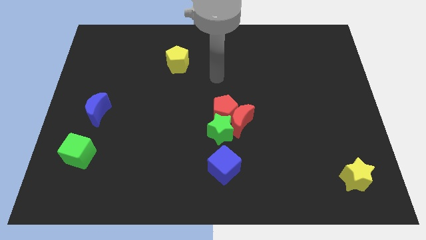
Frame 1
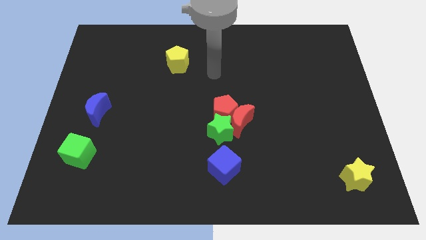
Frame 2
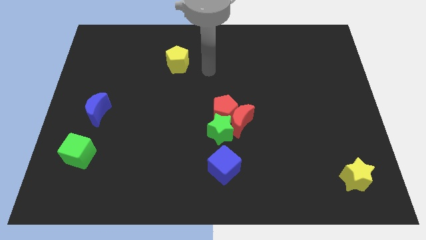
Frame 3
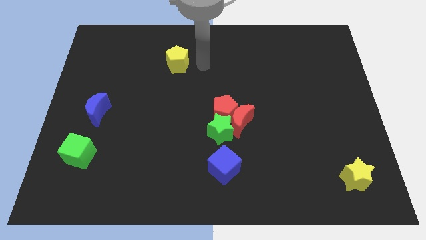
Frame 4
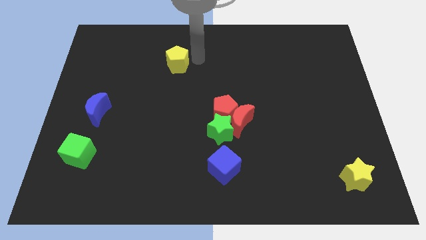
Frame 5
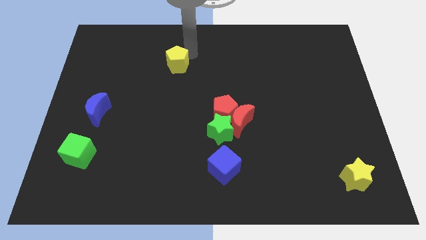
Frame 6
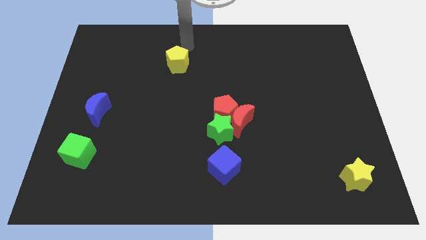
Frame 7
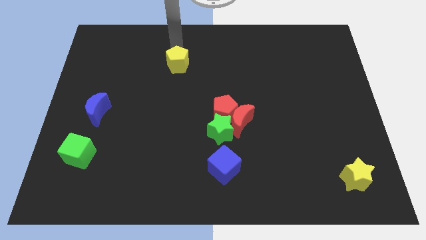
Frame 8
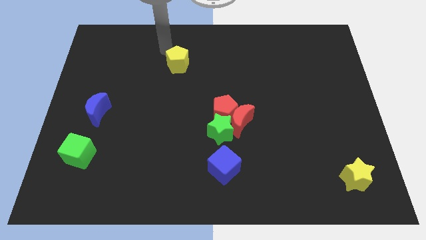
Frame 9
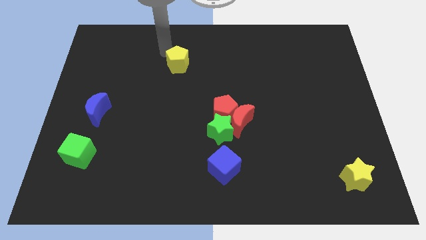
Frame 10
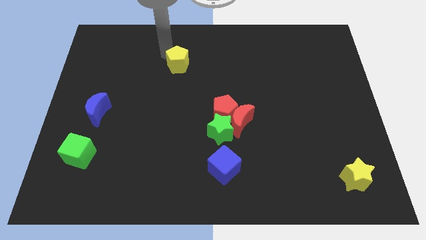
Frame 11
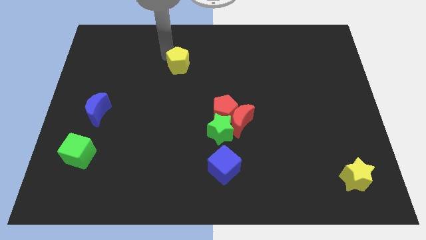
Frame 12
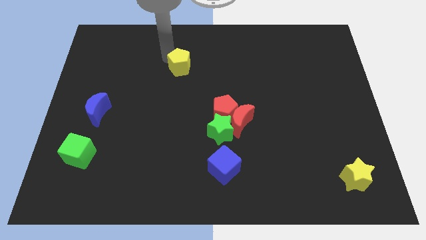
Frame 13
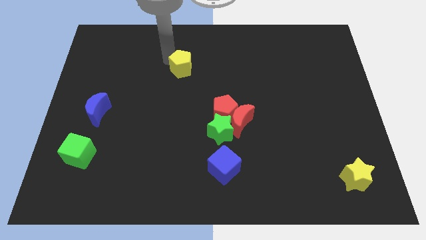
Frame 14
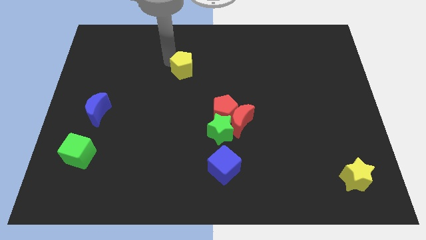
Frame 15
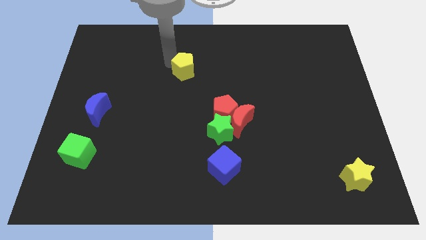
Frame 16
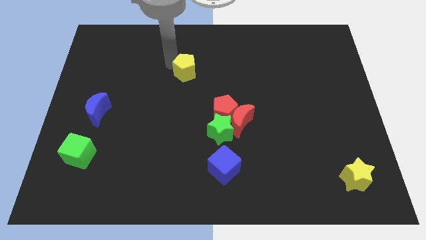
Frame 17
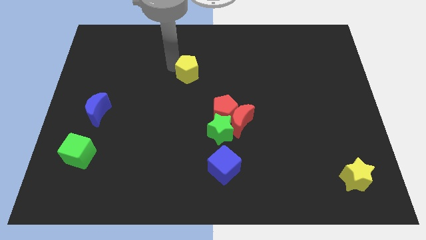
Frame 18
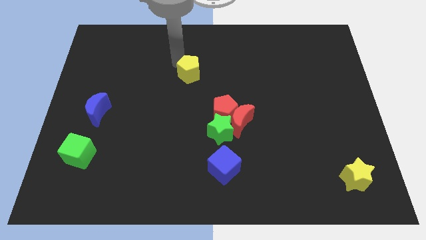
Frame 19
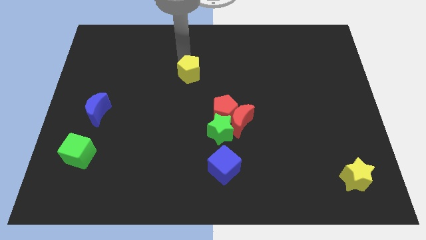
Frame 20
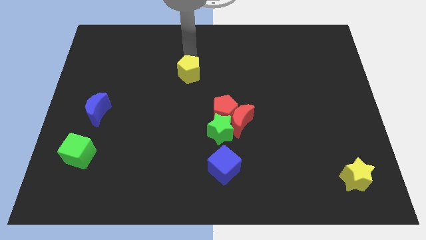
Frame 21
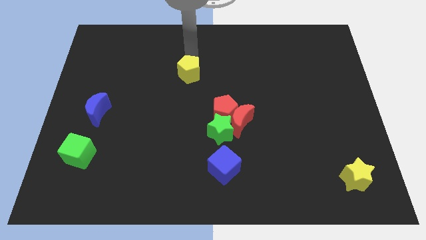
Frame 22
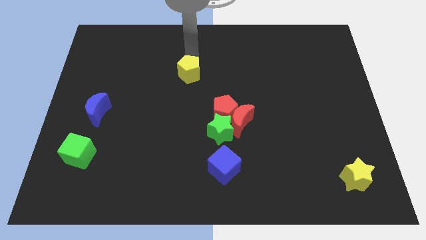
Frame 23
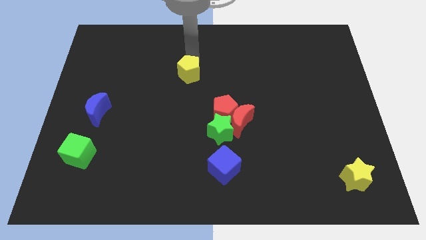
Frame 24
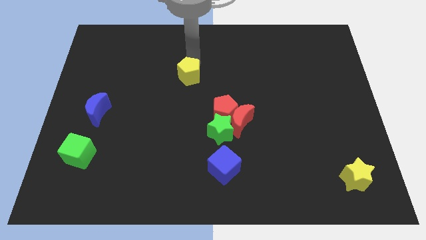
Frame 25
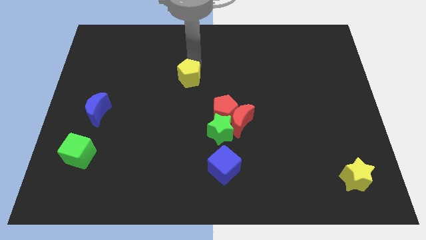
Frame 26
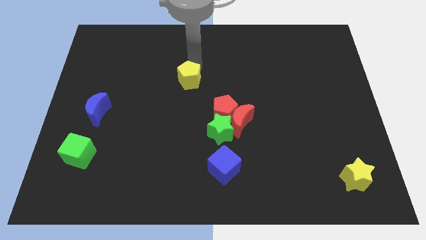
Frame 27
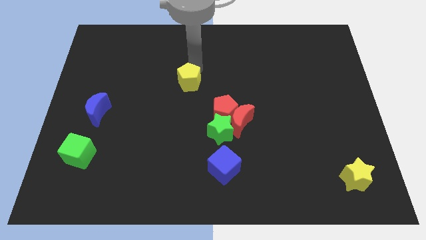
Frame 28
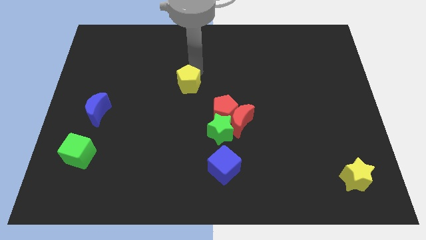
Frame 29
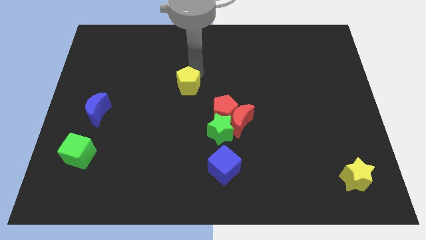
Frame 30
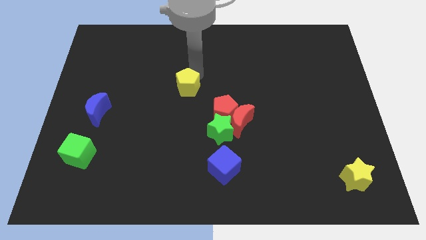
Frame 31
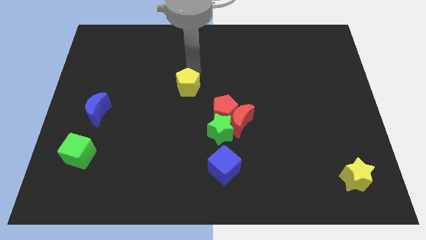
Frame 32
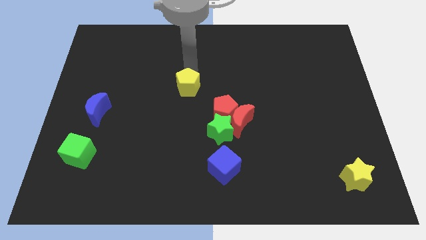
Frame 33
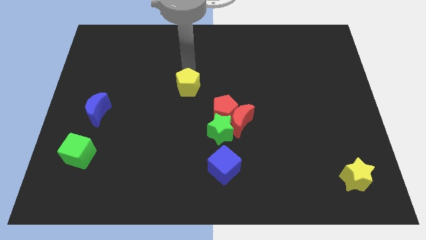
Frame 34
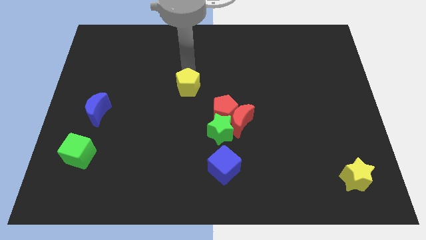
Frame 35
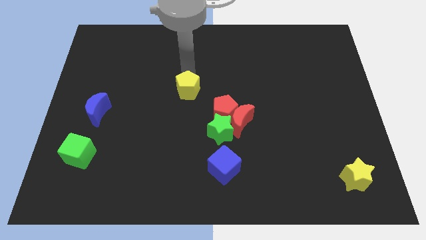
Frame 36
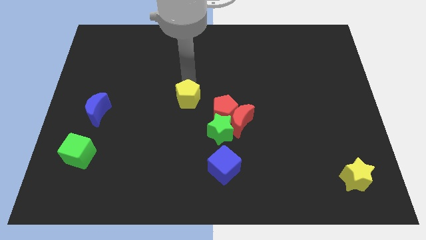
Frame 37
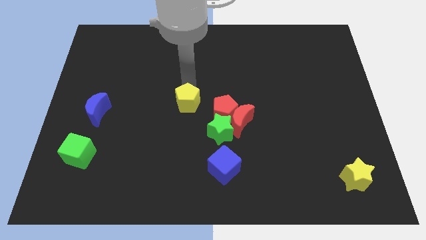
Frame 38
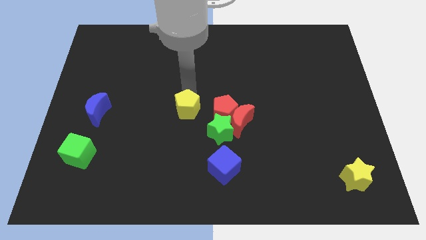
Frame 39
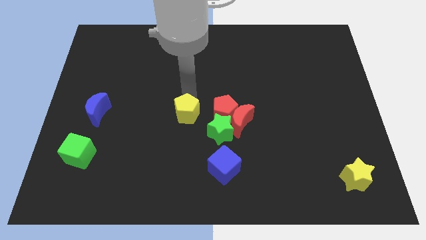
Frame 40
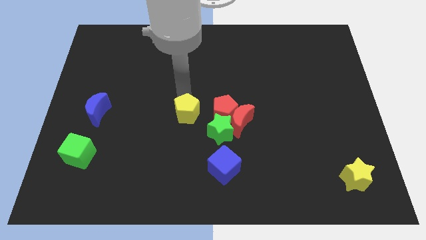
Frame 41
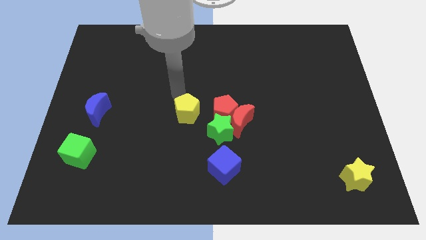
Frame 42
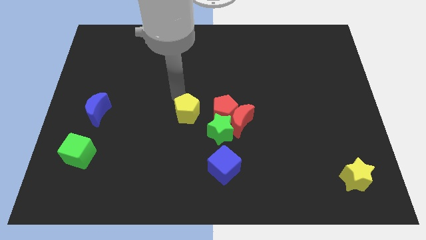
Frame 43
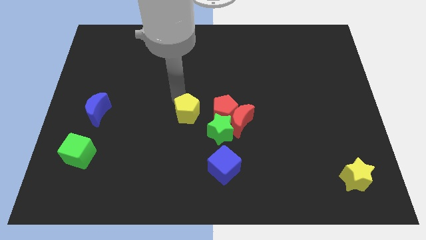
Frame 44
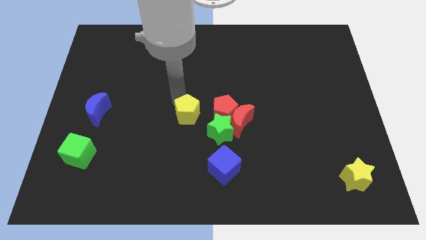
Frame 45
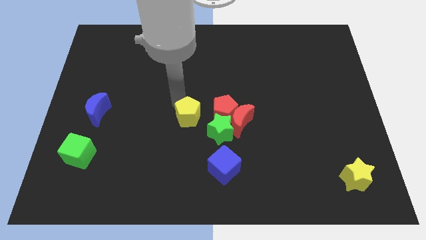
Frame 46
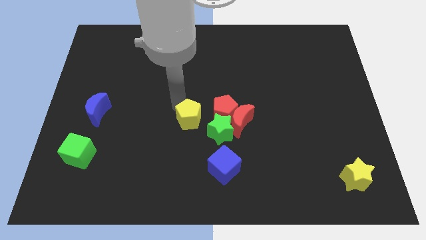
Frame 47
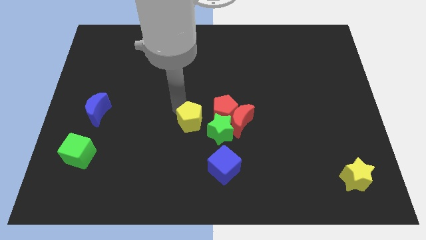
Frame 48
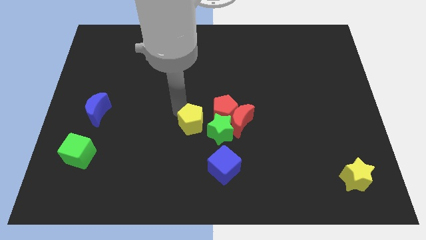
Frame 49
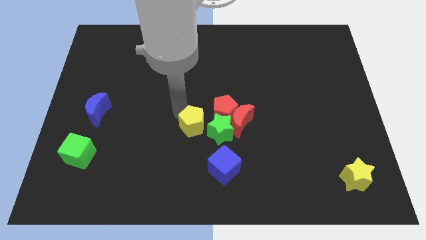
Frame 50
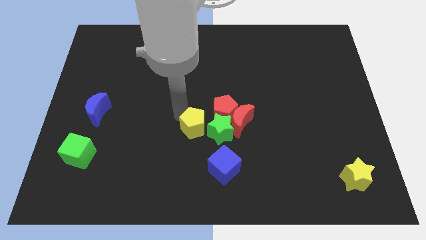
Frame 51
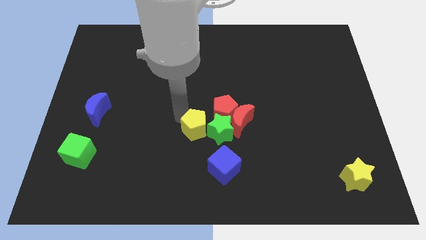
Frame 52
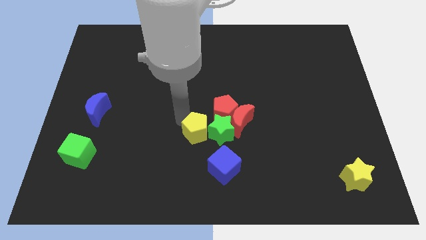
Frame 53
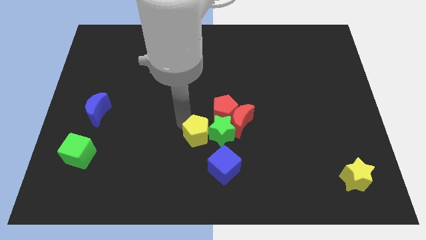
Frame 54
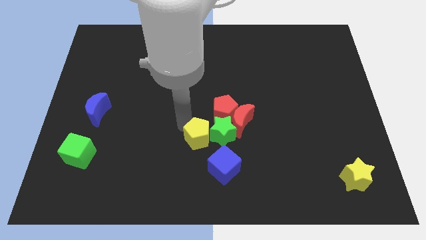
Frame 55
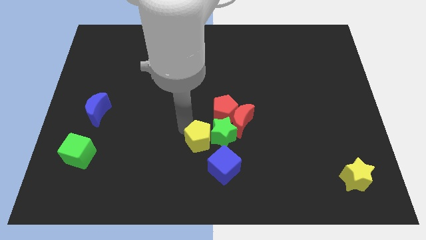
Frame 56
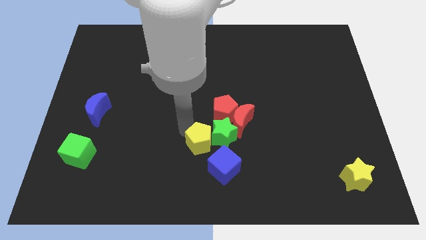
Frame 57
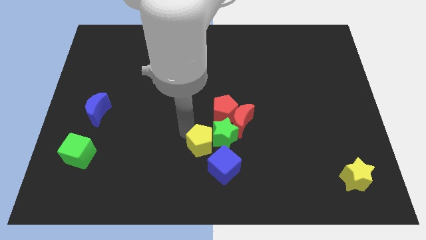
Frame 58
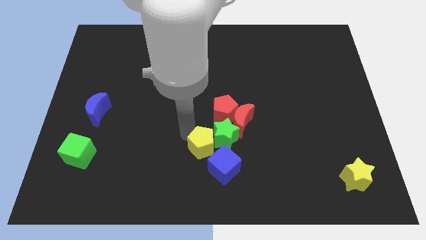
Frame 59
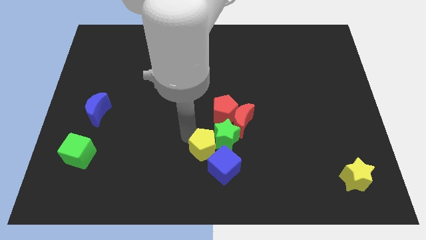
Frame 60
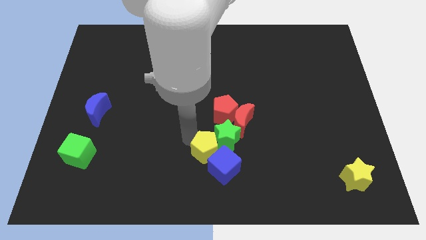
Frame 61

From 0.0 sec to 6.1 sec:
put the yellow pentagon to the blue cube

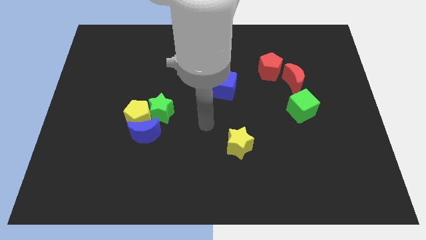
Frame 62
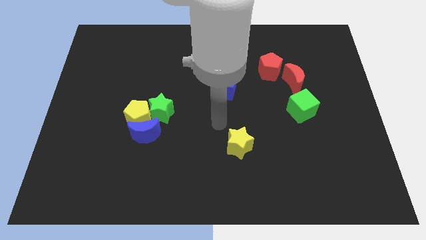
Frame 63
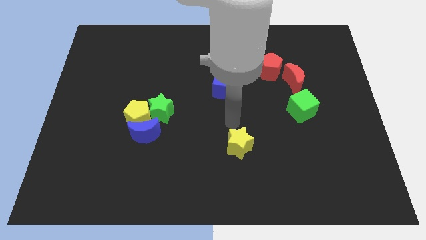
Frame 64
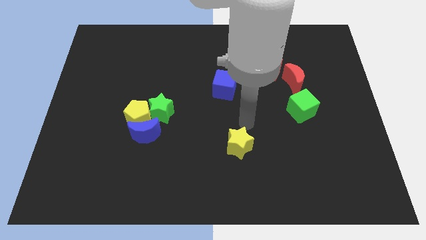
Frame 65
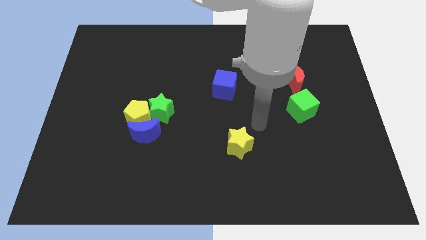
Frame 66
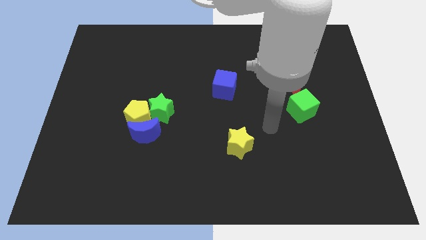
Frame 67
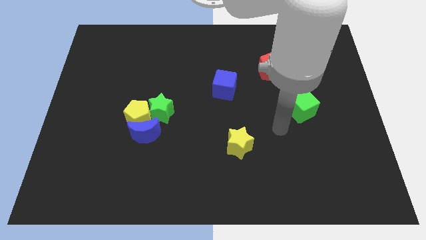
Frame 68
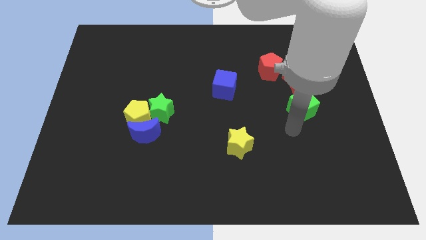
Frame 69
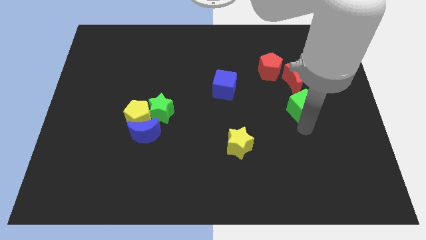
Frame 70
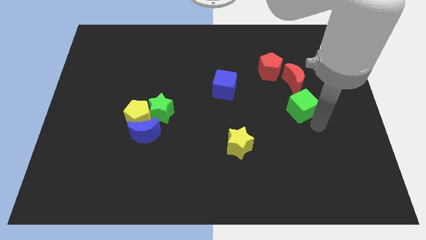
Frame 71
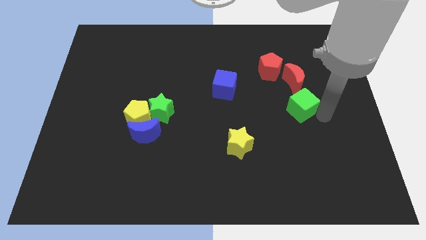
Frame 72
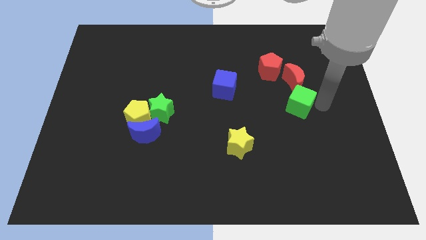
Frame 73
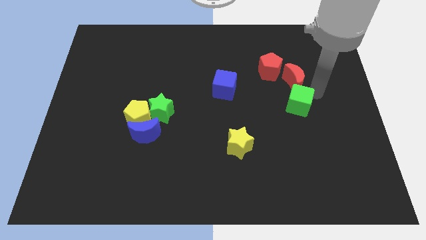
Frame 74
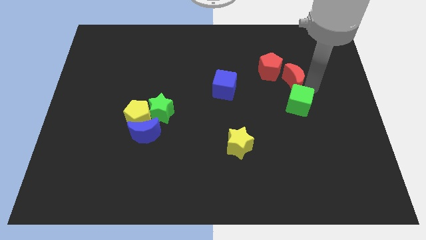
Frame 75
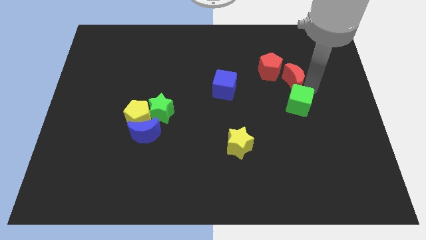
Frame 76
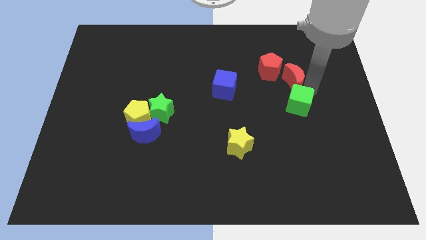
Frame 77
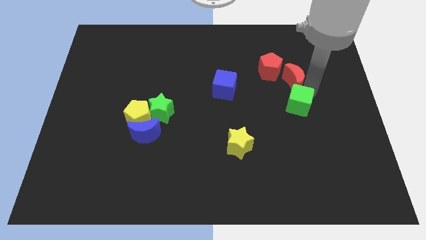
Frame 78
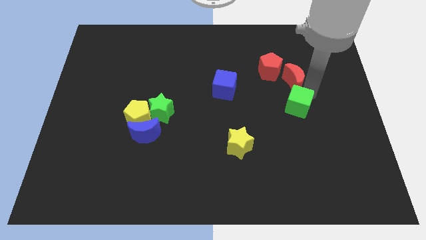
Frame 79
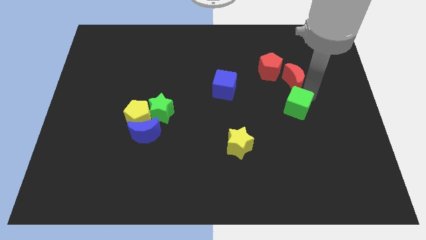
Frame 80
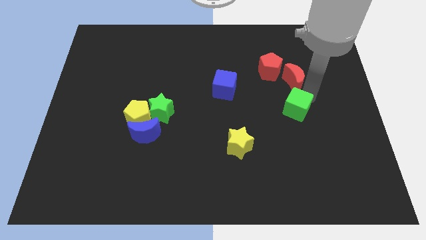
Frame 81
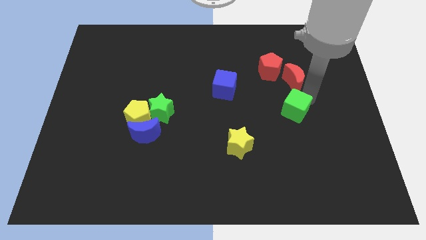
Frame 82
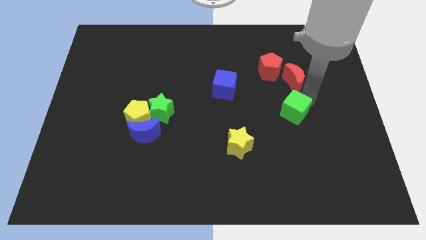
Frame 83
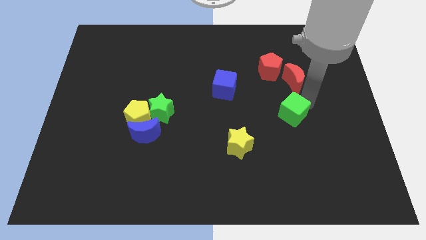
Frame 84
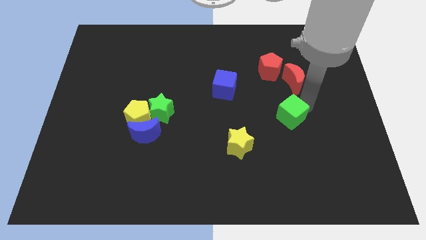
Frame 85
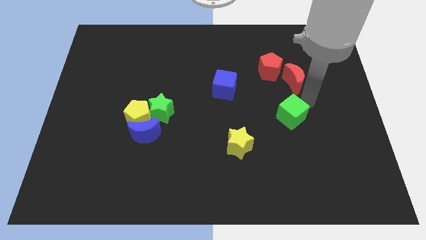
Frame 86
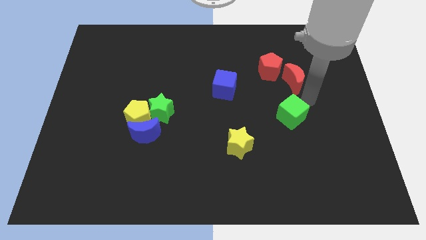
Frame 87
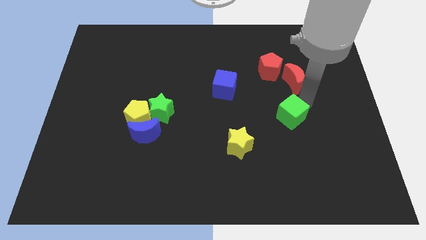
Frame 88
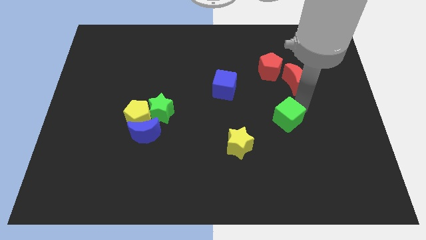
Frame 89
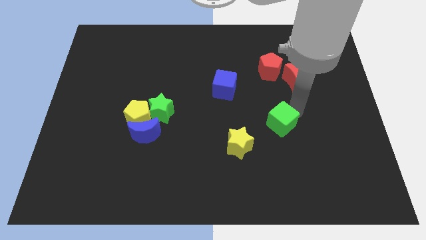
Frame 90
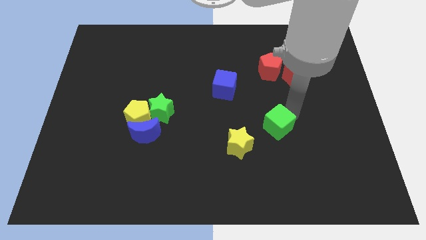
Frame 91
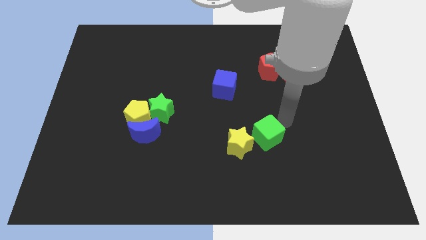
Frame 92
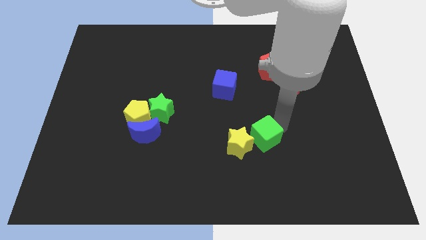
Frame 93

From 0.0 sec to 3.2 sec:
push the green cube next to the yellow star
